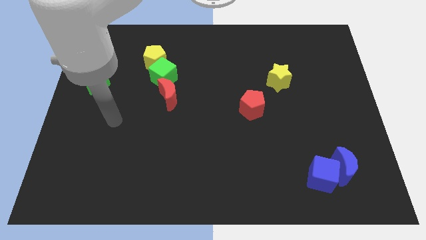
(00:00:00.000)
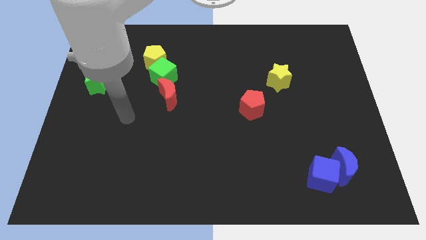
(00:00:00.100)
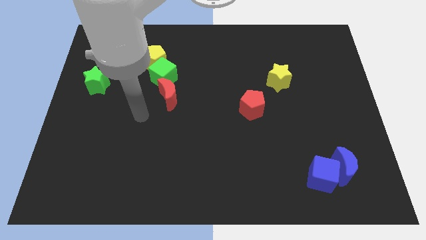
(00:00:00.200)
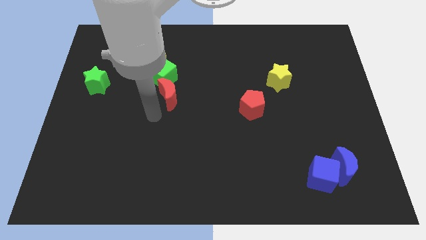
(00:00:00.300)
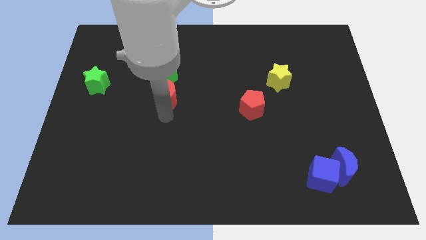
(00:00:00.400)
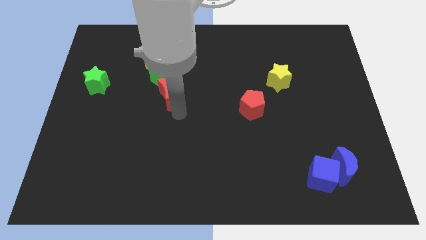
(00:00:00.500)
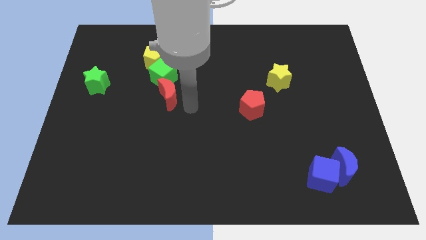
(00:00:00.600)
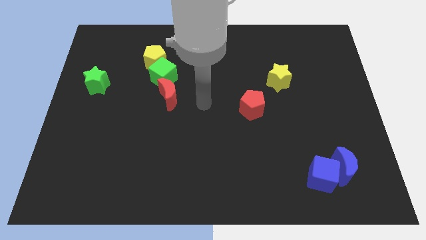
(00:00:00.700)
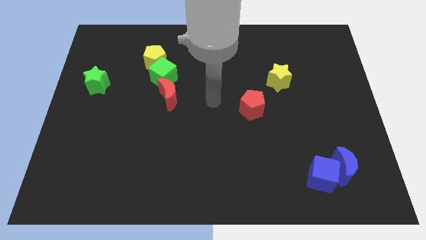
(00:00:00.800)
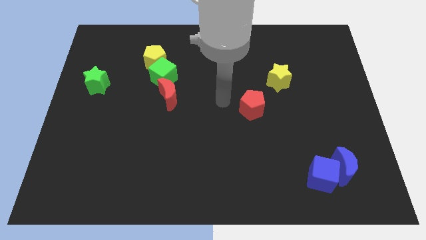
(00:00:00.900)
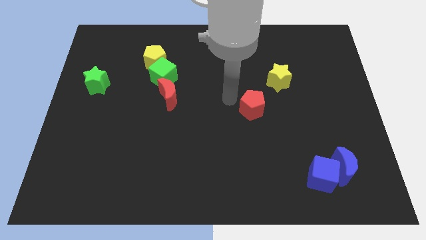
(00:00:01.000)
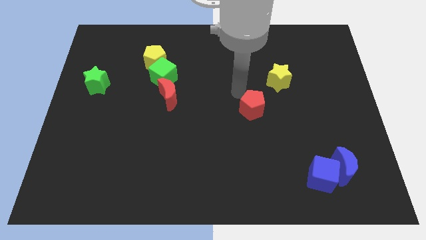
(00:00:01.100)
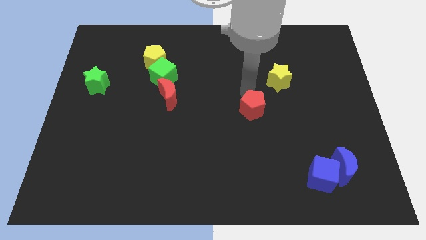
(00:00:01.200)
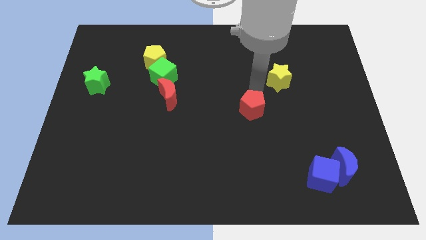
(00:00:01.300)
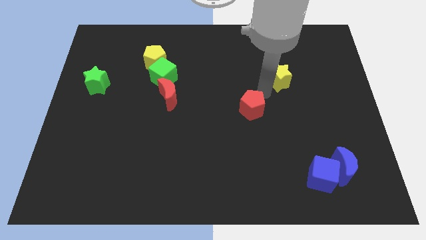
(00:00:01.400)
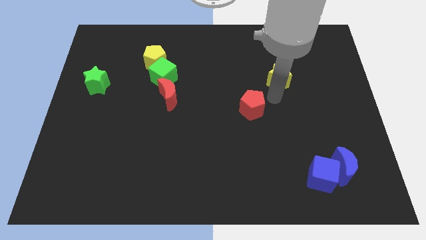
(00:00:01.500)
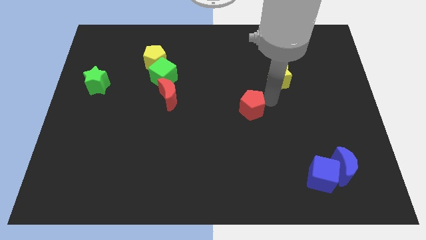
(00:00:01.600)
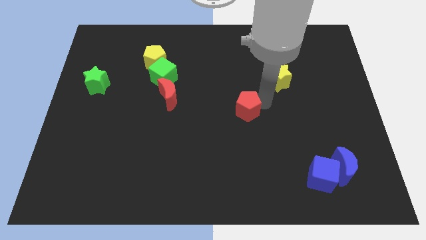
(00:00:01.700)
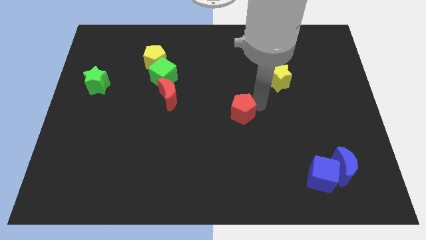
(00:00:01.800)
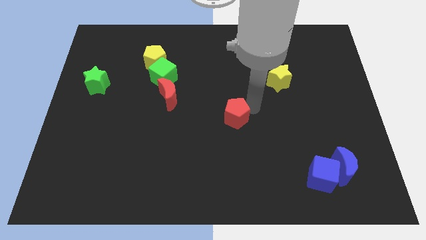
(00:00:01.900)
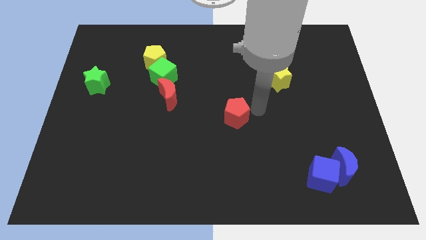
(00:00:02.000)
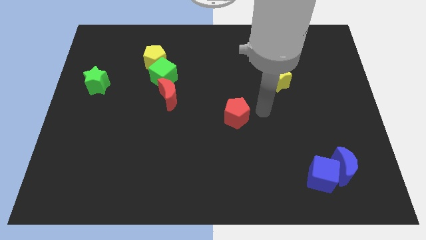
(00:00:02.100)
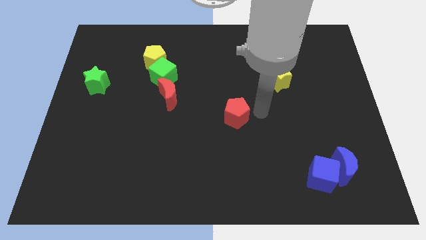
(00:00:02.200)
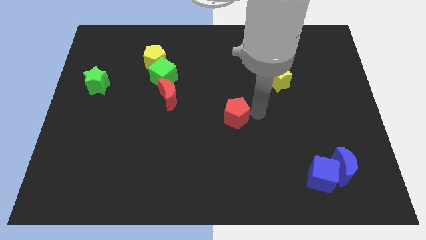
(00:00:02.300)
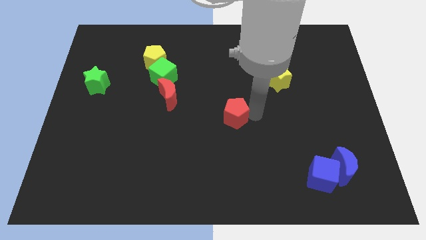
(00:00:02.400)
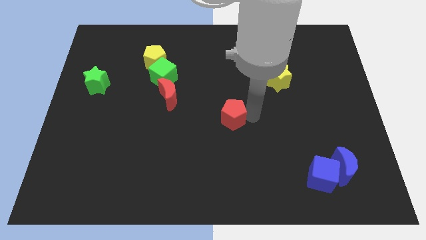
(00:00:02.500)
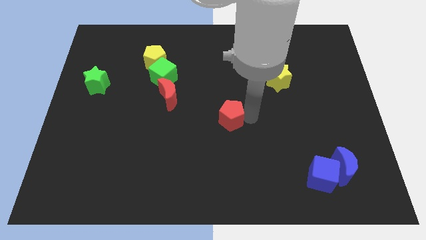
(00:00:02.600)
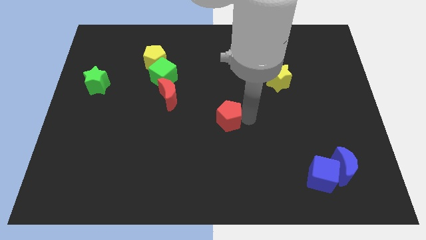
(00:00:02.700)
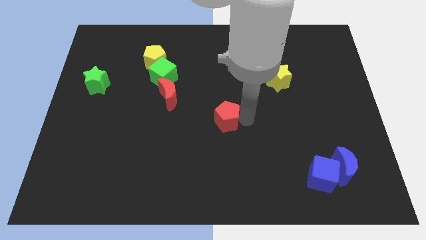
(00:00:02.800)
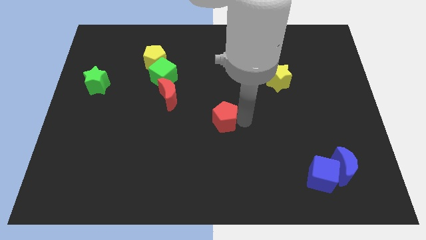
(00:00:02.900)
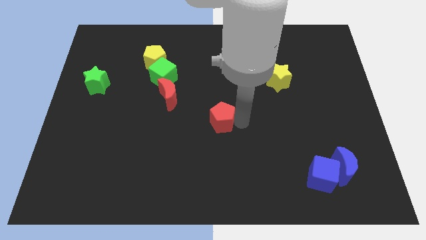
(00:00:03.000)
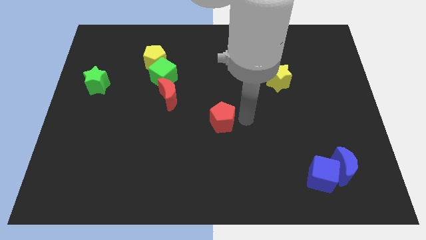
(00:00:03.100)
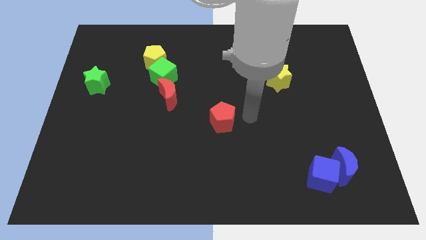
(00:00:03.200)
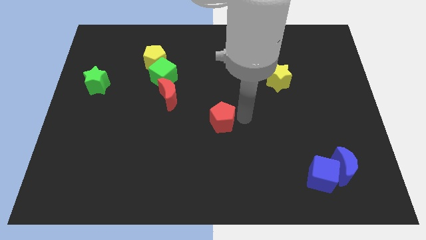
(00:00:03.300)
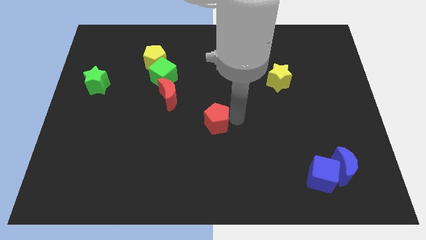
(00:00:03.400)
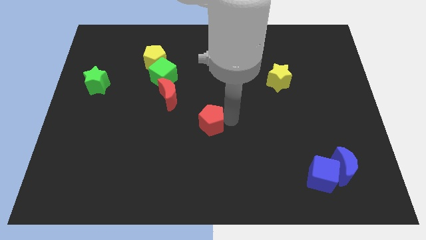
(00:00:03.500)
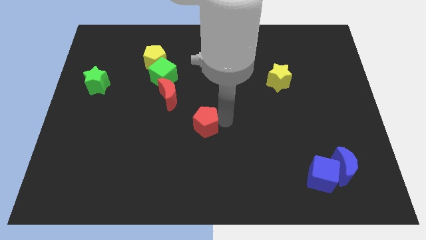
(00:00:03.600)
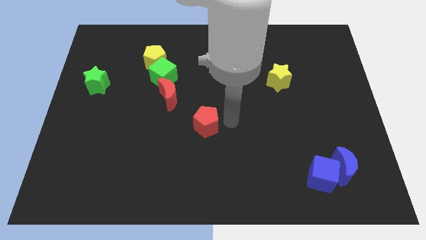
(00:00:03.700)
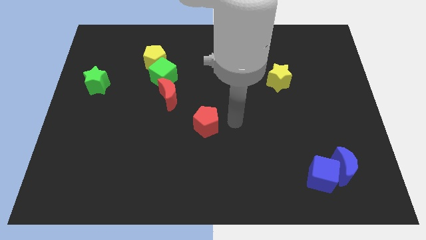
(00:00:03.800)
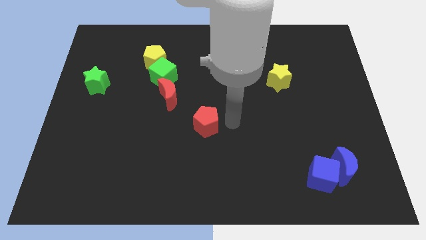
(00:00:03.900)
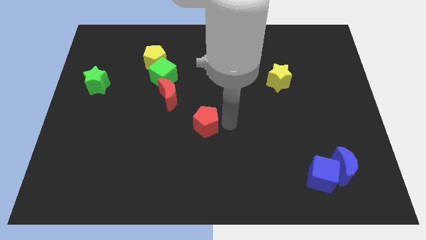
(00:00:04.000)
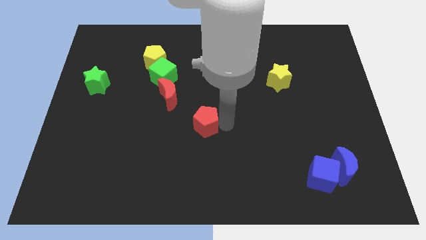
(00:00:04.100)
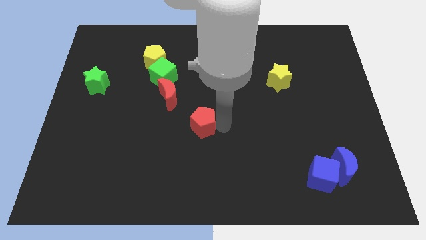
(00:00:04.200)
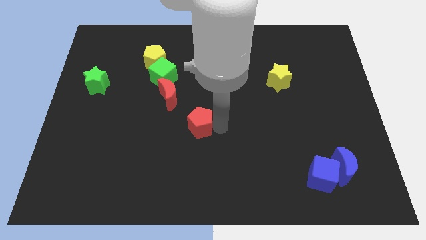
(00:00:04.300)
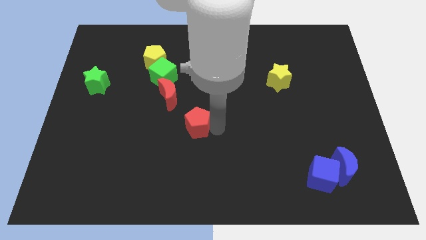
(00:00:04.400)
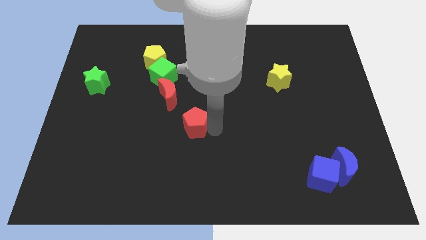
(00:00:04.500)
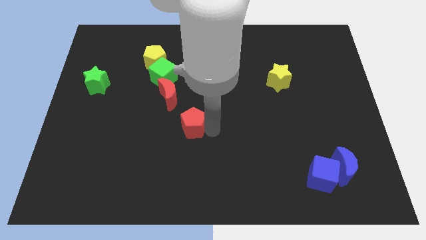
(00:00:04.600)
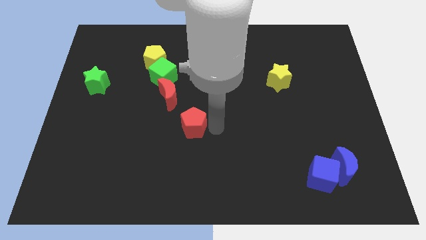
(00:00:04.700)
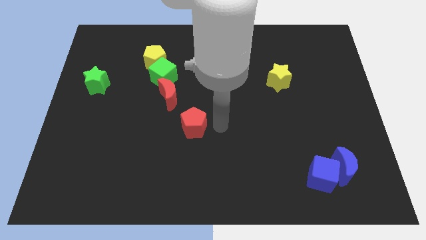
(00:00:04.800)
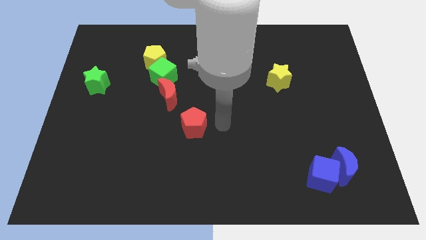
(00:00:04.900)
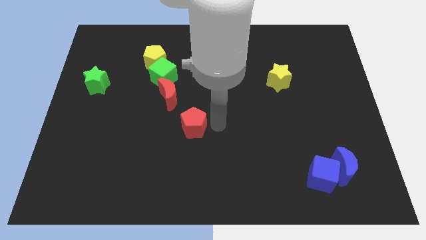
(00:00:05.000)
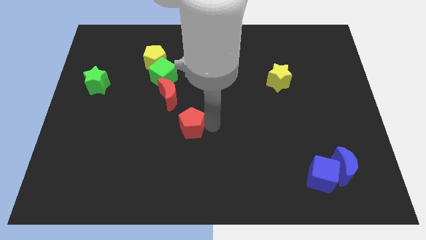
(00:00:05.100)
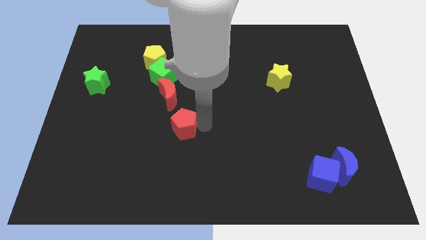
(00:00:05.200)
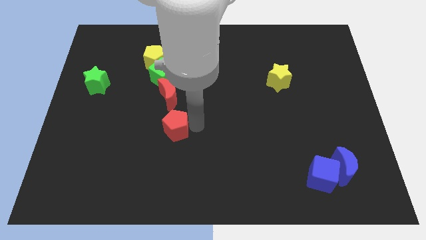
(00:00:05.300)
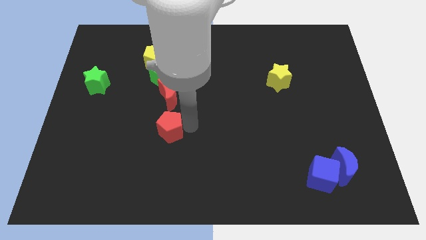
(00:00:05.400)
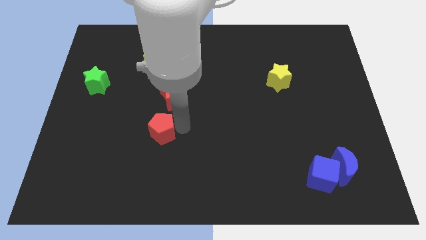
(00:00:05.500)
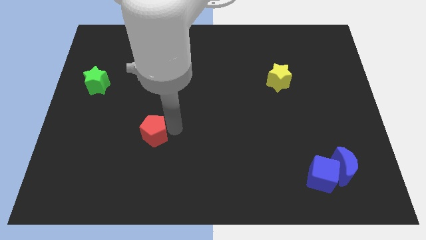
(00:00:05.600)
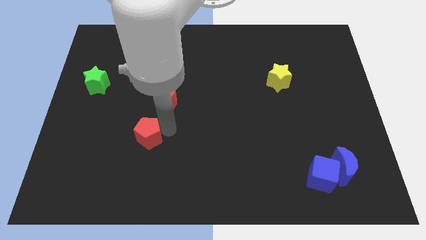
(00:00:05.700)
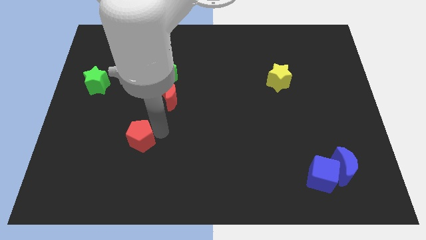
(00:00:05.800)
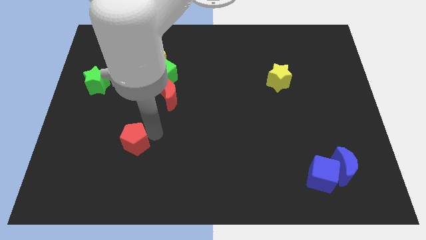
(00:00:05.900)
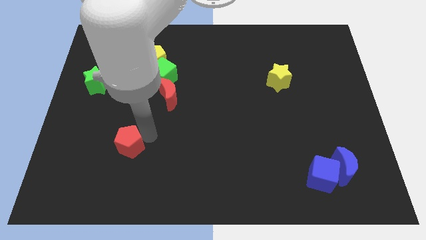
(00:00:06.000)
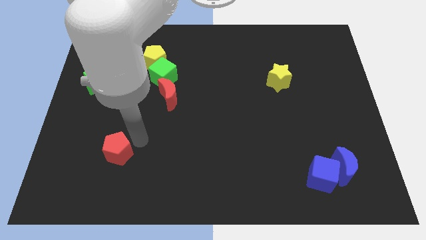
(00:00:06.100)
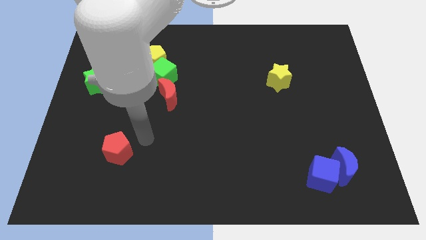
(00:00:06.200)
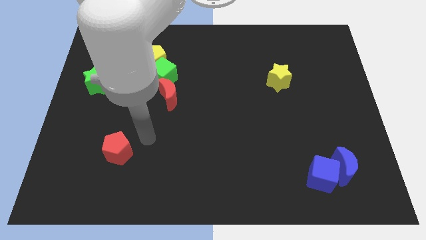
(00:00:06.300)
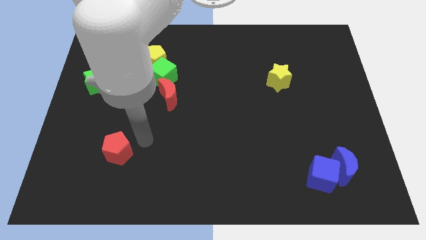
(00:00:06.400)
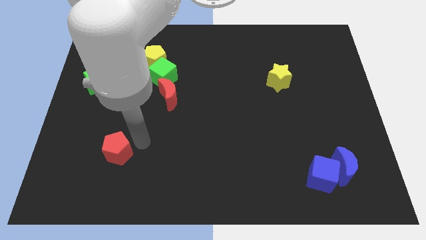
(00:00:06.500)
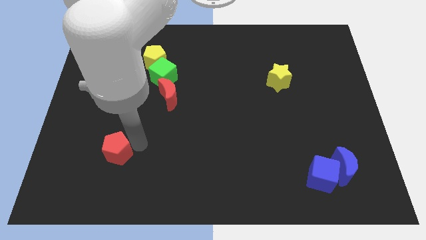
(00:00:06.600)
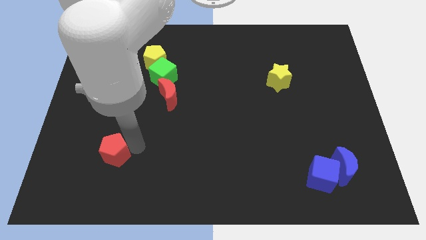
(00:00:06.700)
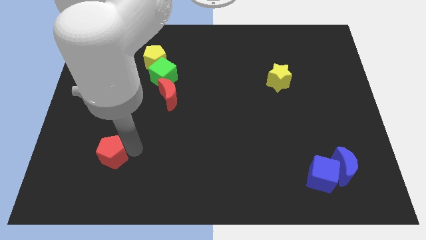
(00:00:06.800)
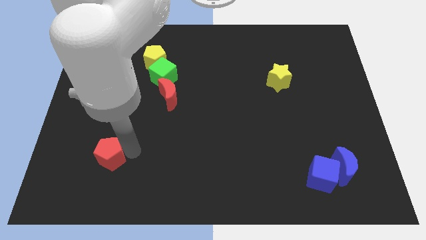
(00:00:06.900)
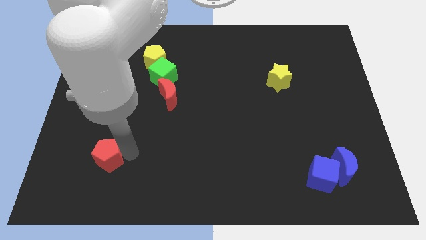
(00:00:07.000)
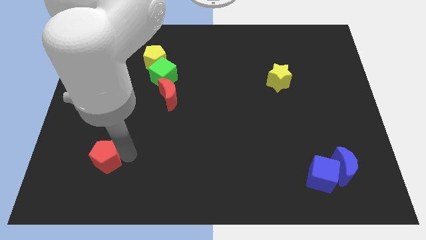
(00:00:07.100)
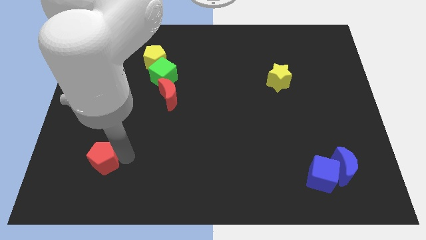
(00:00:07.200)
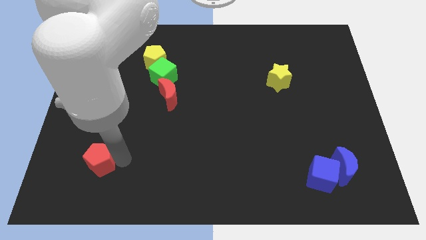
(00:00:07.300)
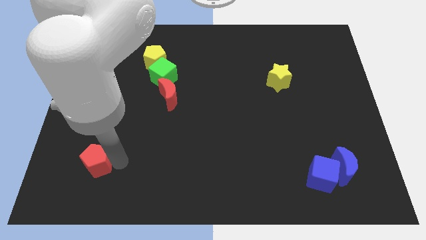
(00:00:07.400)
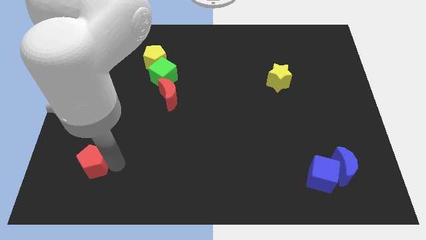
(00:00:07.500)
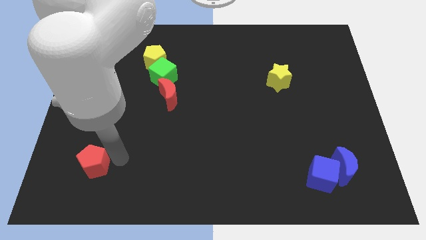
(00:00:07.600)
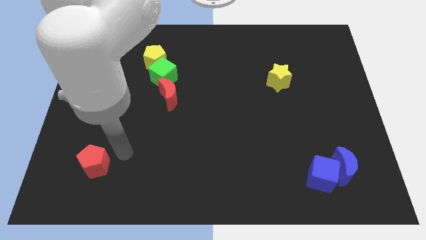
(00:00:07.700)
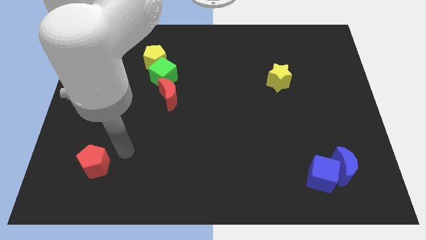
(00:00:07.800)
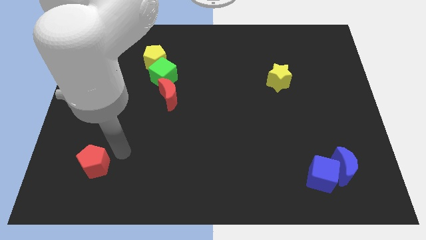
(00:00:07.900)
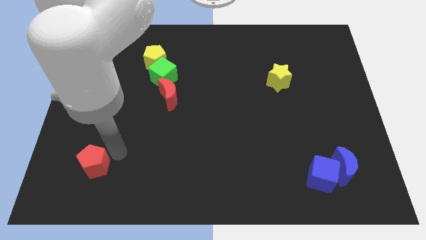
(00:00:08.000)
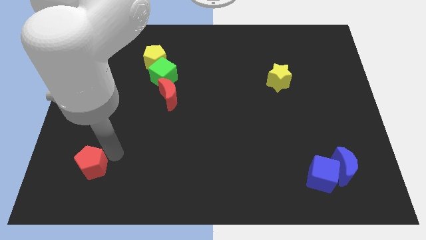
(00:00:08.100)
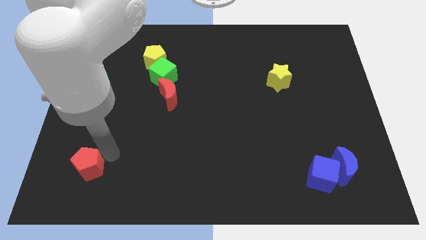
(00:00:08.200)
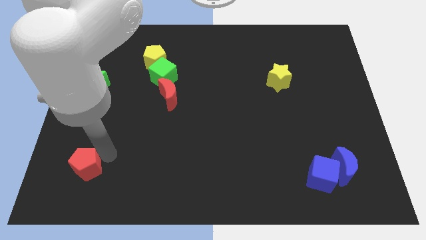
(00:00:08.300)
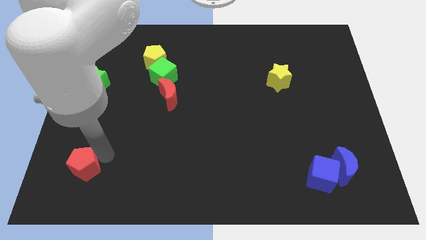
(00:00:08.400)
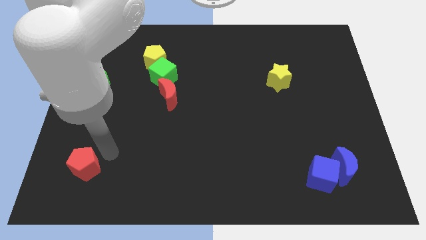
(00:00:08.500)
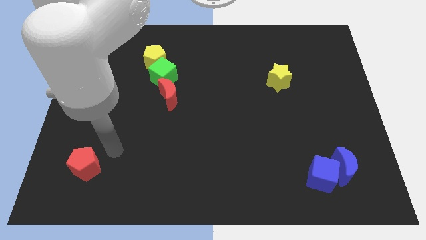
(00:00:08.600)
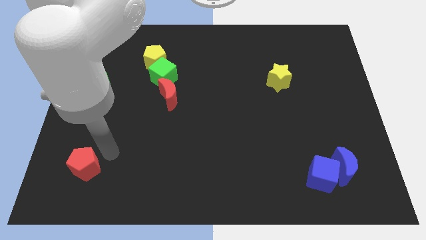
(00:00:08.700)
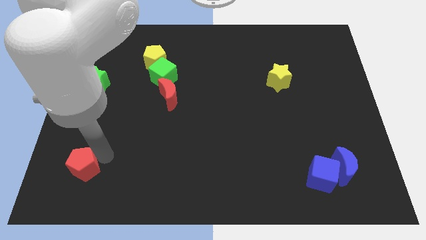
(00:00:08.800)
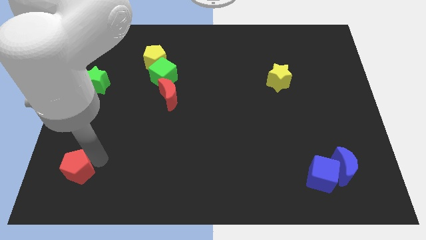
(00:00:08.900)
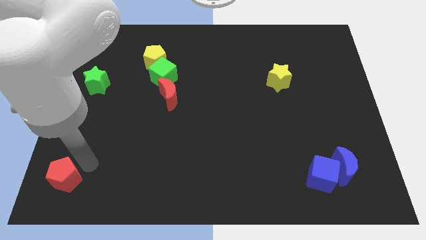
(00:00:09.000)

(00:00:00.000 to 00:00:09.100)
push the red pentagon to the bottom left corner
